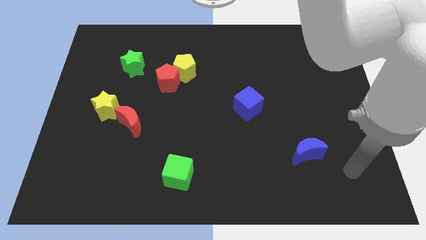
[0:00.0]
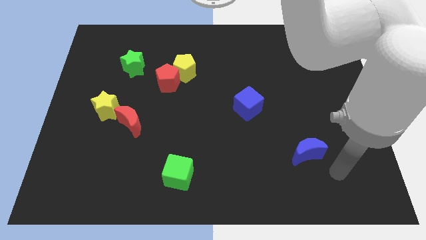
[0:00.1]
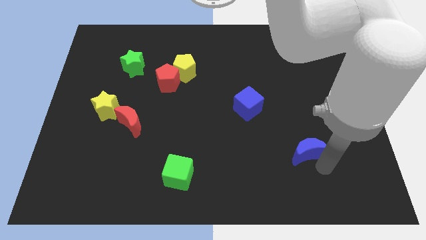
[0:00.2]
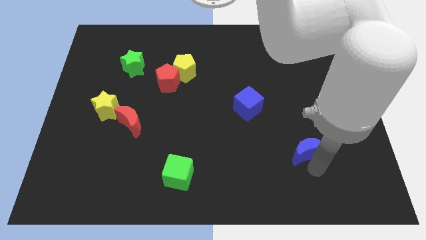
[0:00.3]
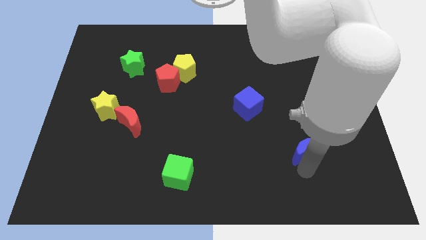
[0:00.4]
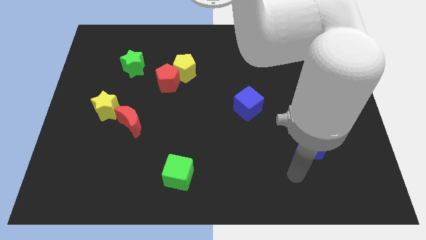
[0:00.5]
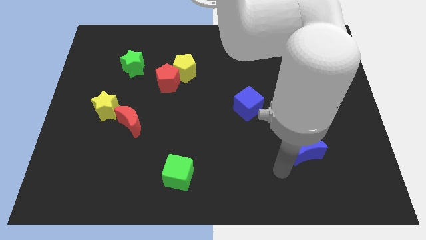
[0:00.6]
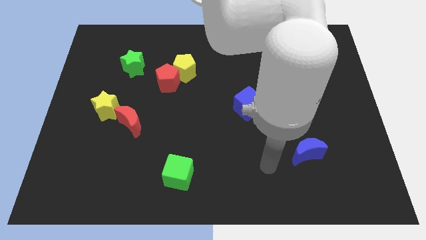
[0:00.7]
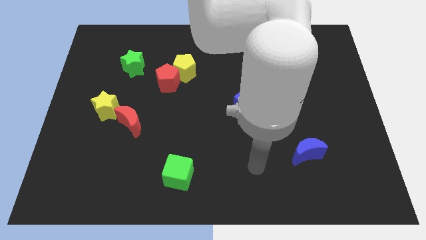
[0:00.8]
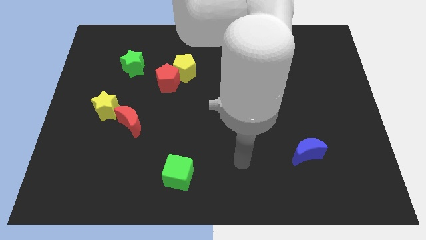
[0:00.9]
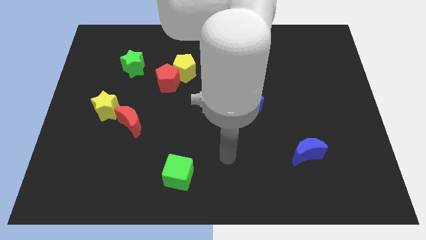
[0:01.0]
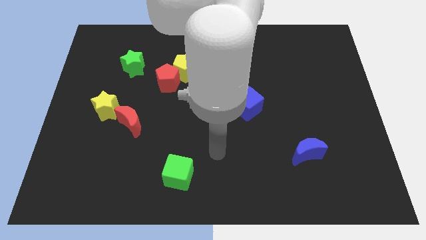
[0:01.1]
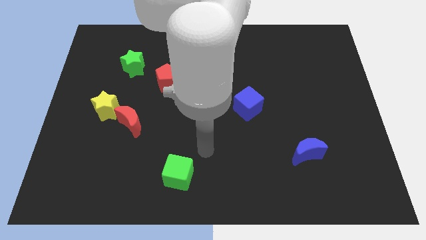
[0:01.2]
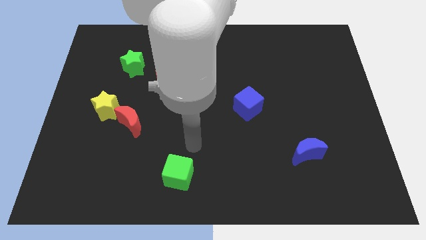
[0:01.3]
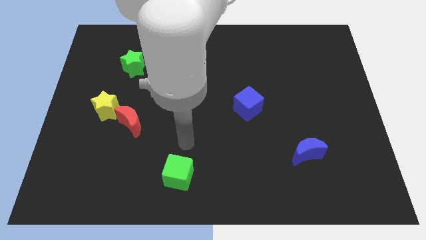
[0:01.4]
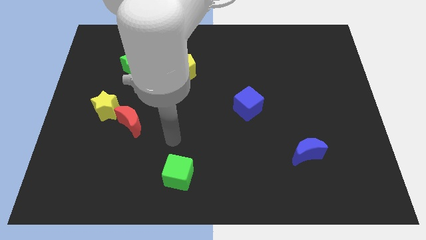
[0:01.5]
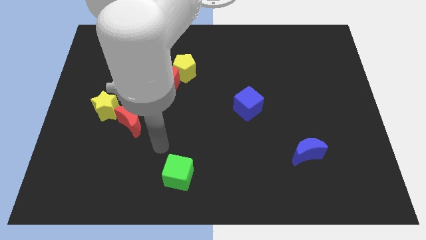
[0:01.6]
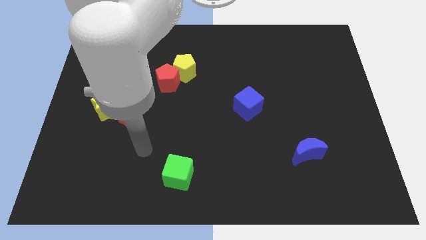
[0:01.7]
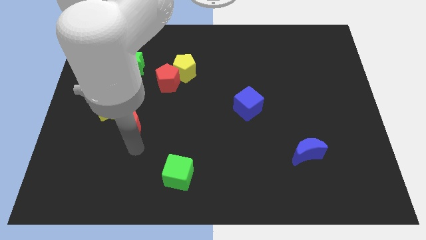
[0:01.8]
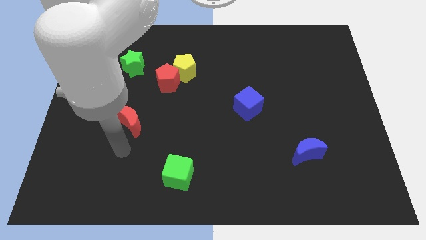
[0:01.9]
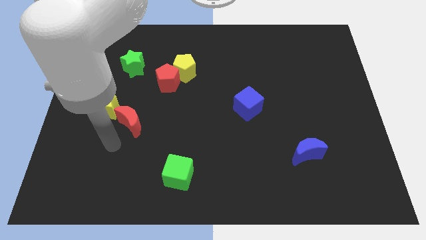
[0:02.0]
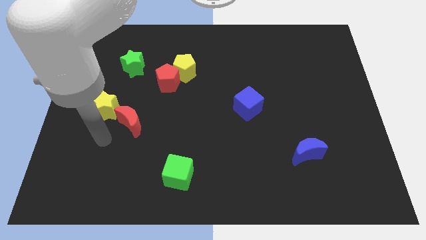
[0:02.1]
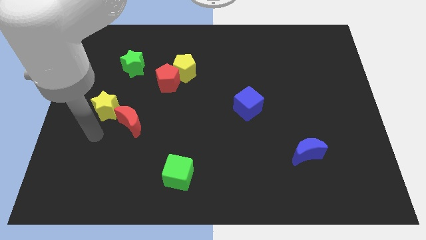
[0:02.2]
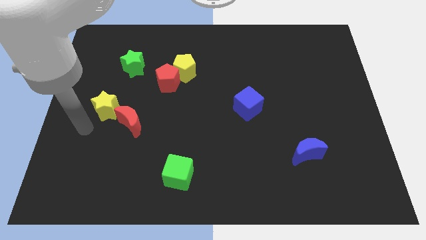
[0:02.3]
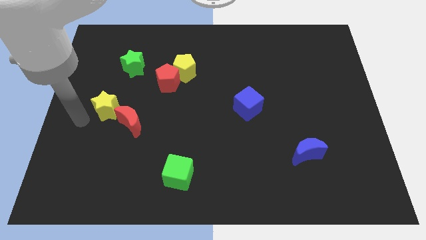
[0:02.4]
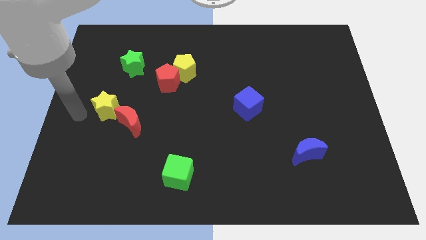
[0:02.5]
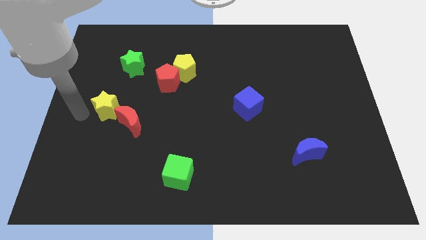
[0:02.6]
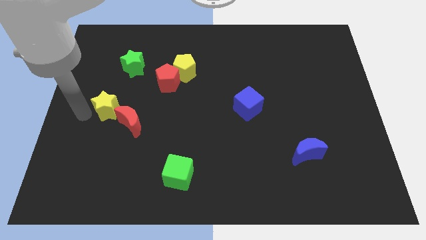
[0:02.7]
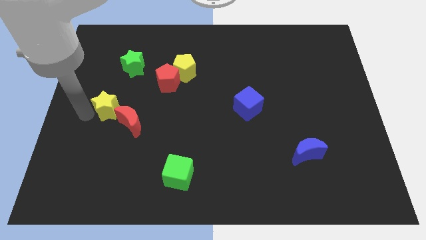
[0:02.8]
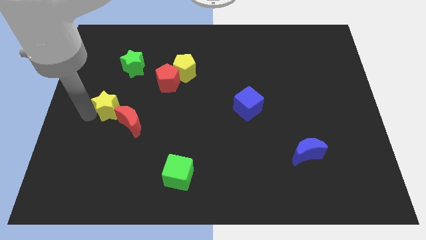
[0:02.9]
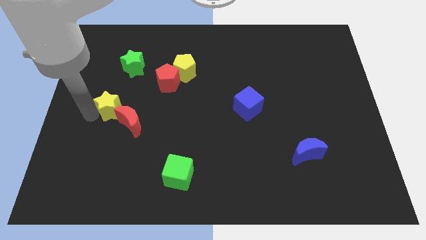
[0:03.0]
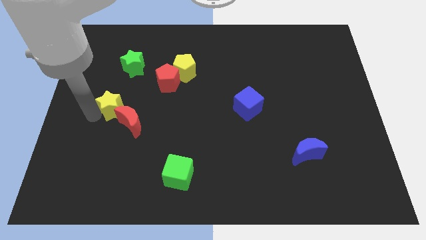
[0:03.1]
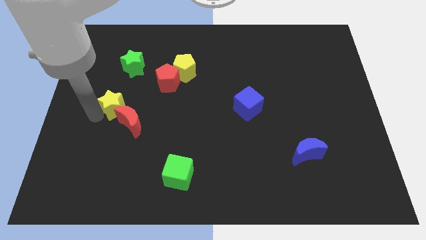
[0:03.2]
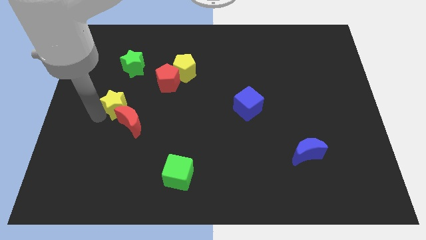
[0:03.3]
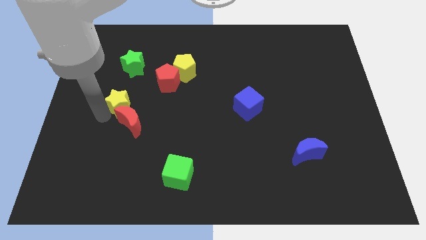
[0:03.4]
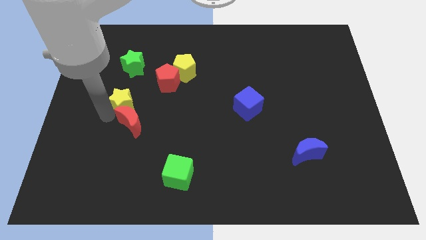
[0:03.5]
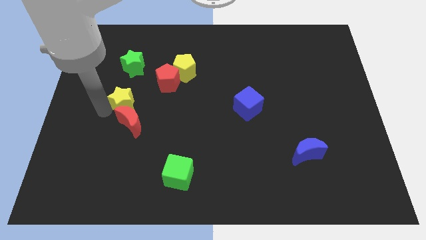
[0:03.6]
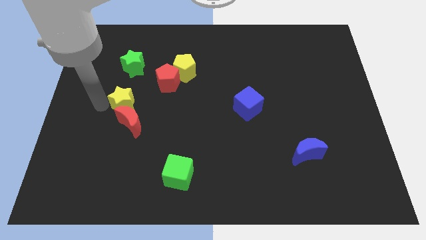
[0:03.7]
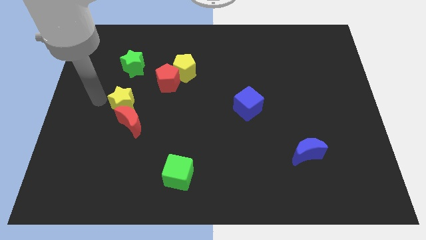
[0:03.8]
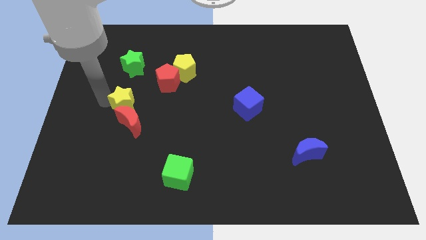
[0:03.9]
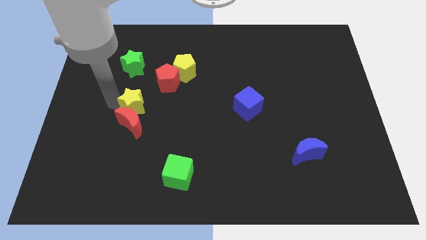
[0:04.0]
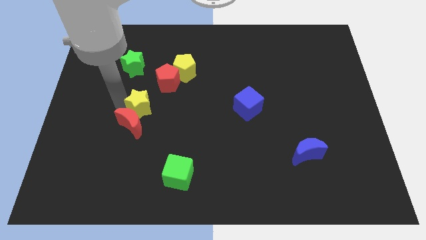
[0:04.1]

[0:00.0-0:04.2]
push the yellow star to the right a bit

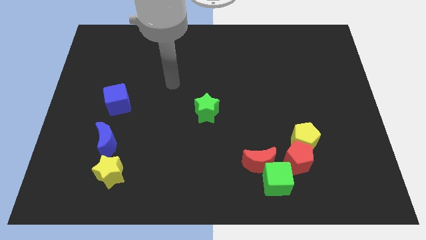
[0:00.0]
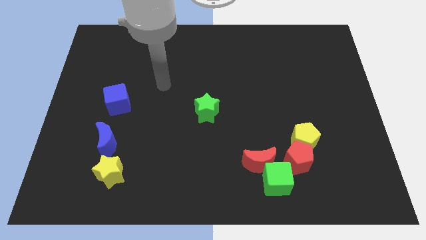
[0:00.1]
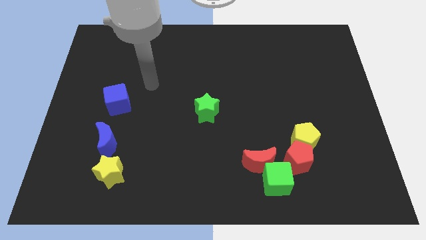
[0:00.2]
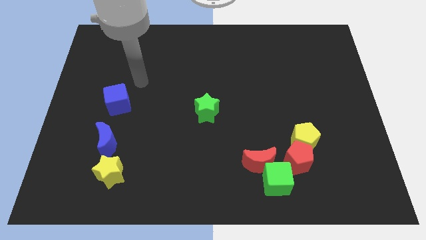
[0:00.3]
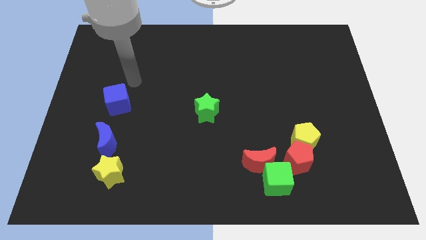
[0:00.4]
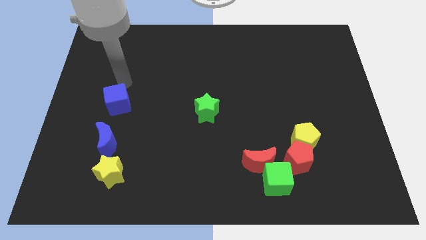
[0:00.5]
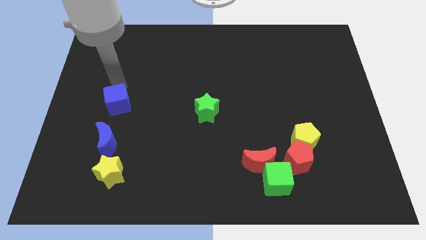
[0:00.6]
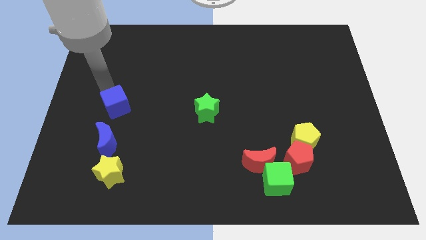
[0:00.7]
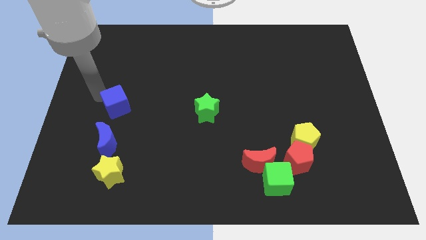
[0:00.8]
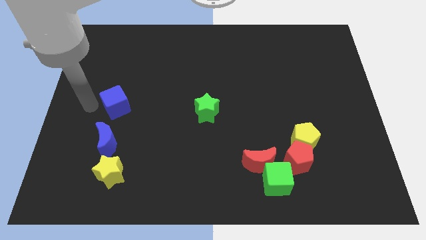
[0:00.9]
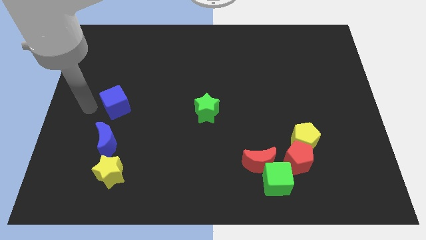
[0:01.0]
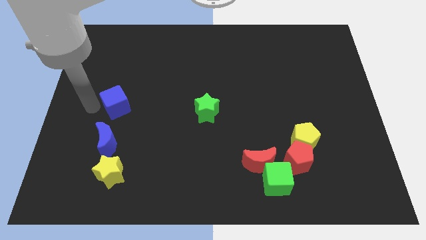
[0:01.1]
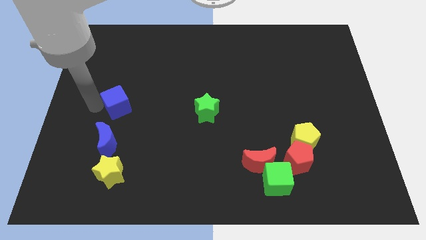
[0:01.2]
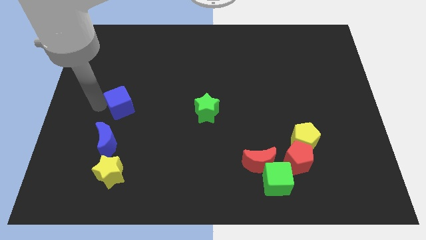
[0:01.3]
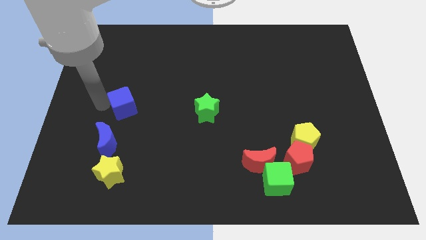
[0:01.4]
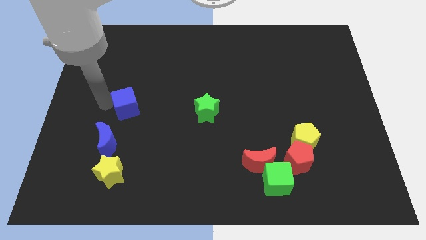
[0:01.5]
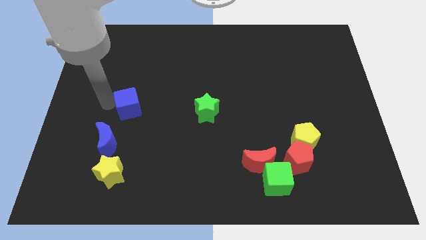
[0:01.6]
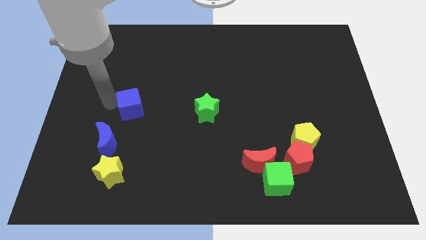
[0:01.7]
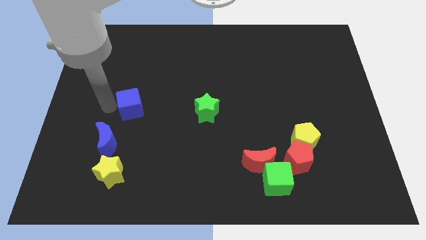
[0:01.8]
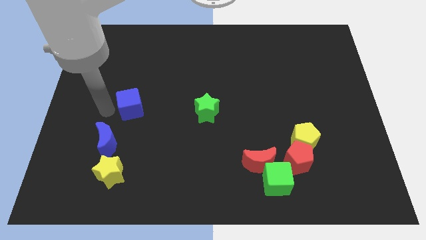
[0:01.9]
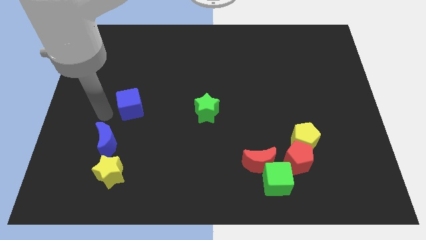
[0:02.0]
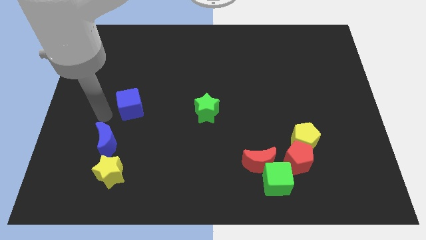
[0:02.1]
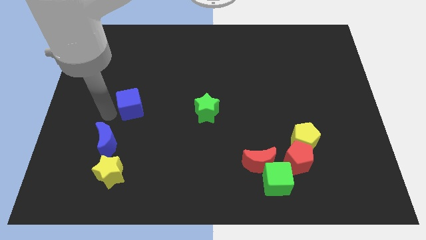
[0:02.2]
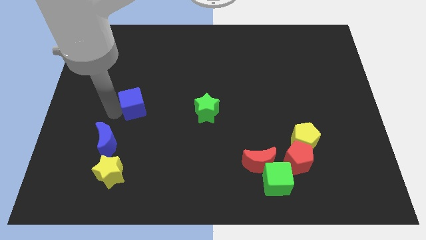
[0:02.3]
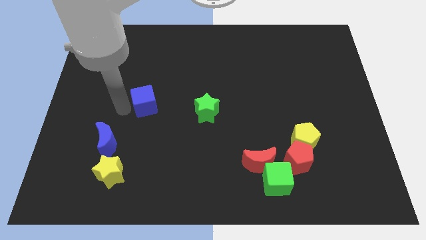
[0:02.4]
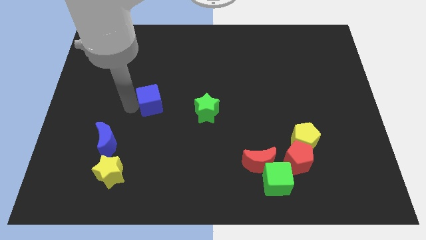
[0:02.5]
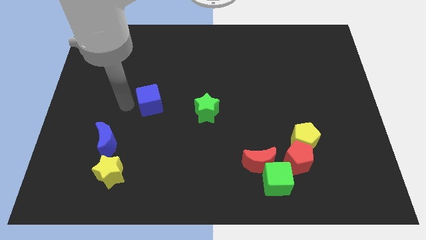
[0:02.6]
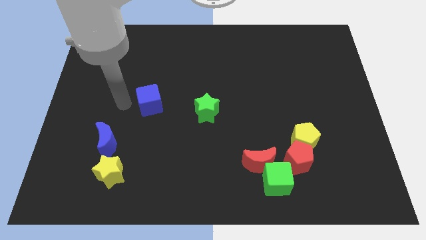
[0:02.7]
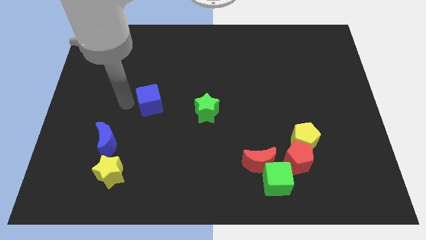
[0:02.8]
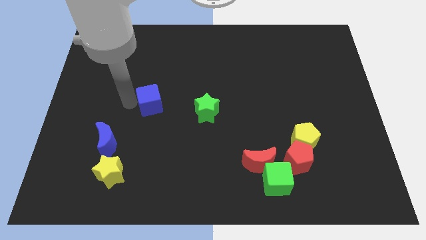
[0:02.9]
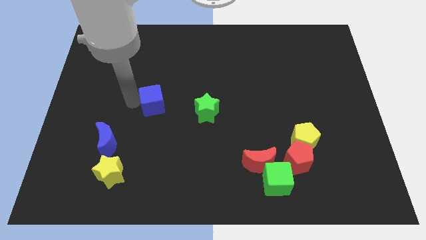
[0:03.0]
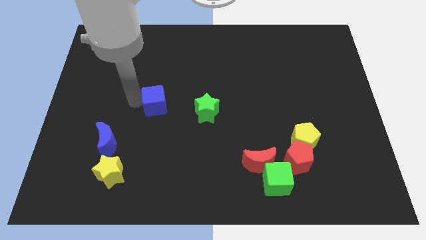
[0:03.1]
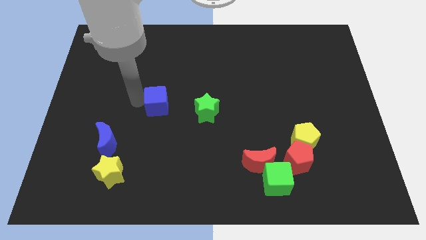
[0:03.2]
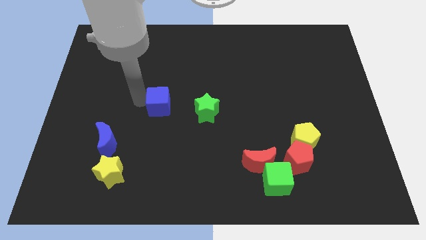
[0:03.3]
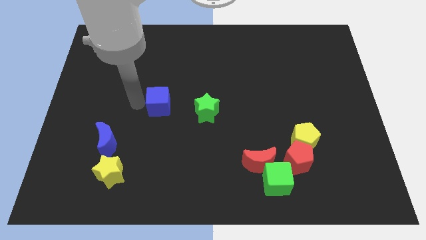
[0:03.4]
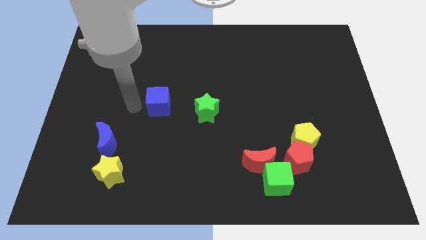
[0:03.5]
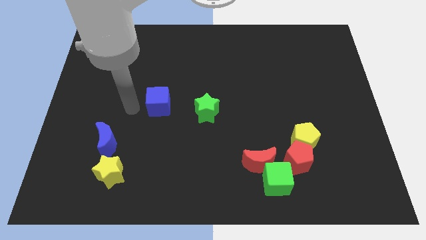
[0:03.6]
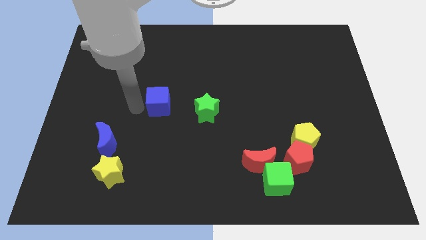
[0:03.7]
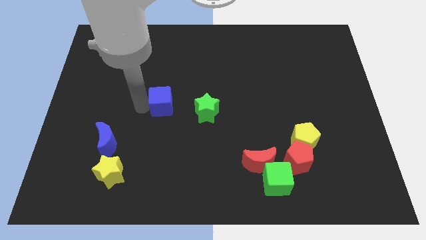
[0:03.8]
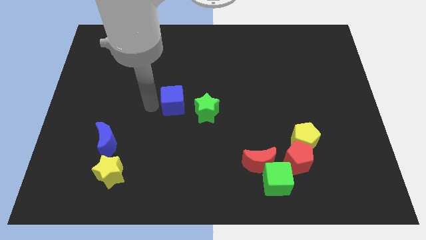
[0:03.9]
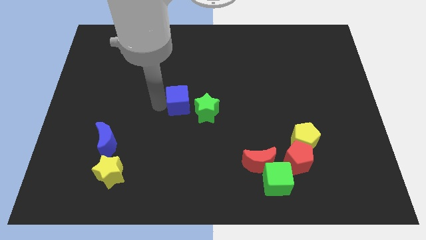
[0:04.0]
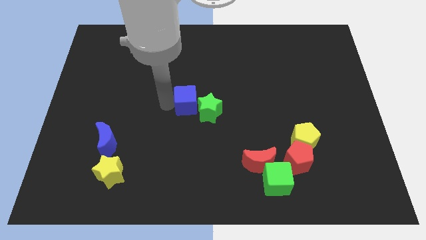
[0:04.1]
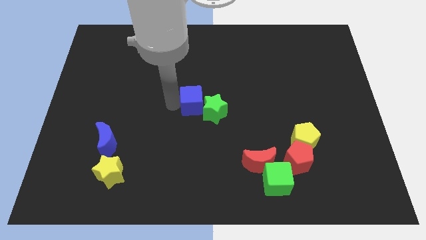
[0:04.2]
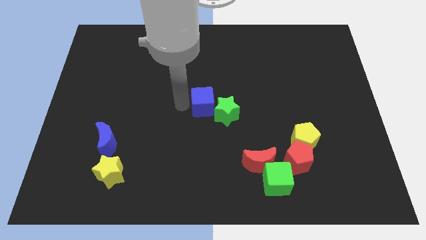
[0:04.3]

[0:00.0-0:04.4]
slide the blue cube to the right
